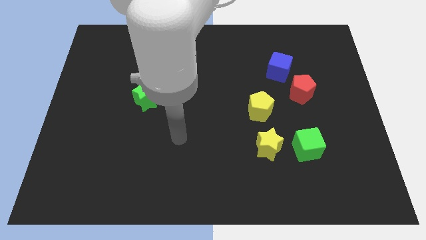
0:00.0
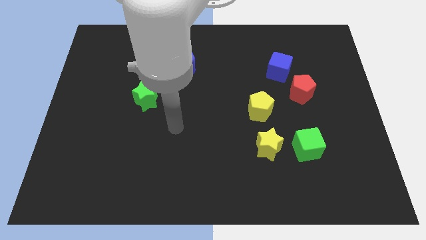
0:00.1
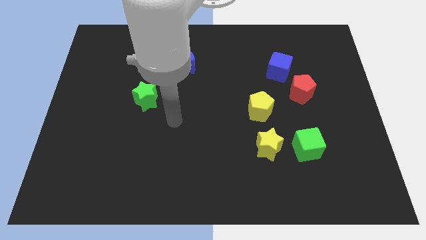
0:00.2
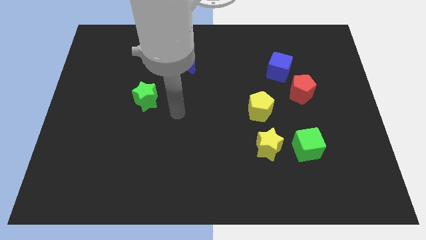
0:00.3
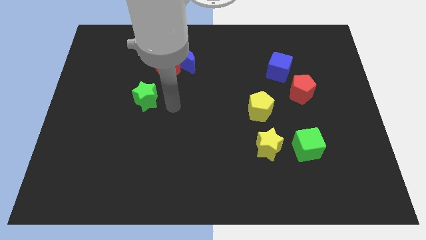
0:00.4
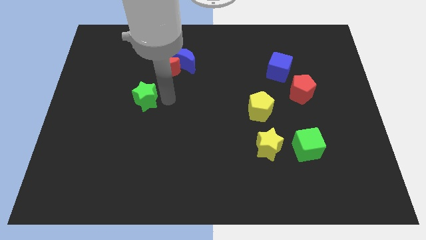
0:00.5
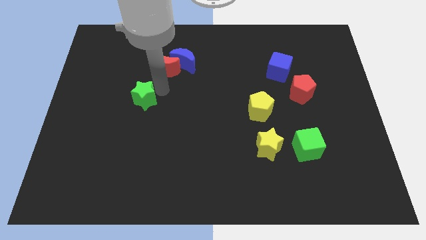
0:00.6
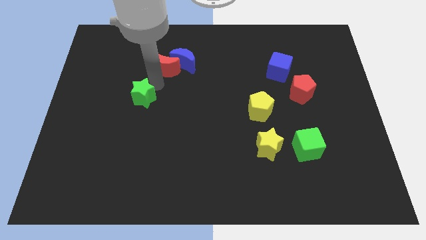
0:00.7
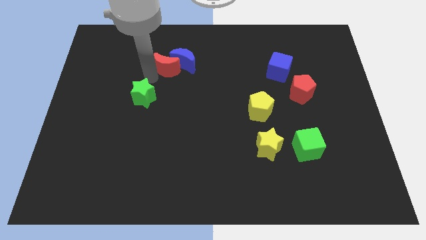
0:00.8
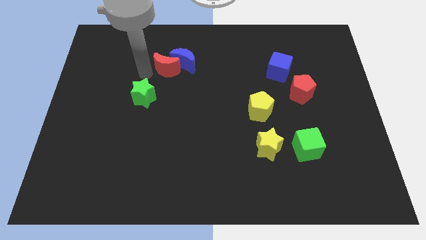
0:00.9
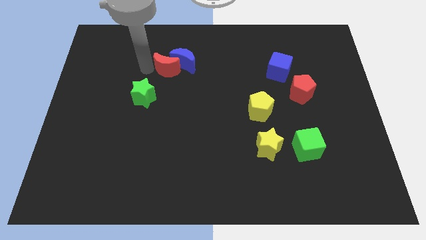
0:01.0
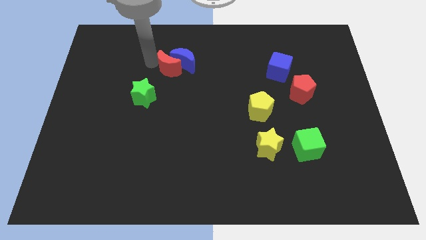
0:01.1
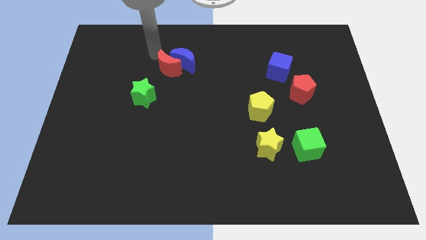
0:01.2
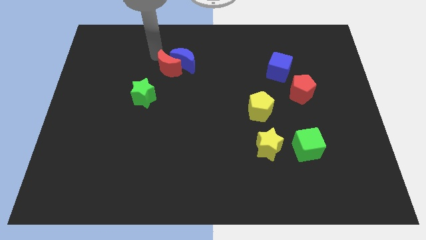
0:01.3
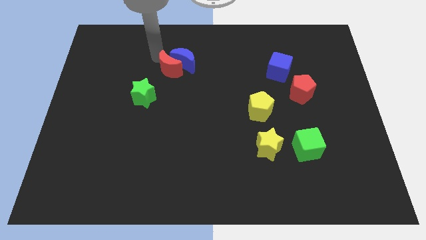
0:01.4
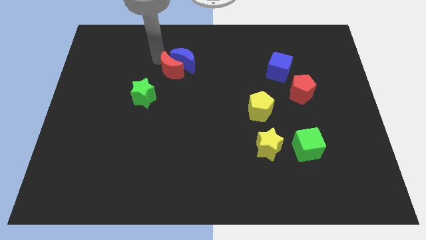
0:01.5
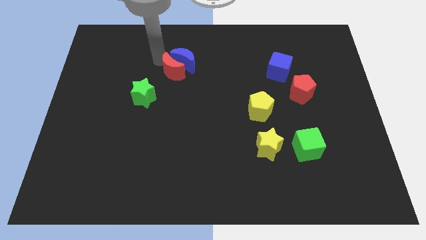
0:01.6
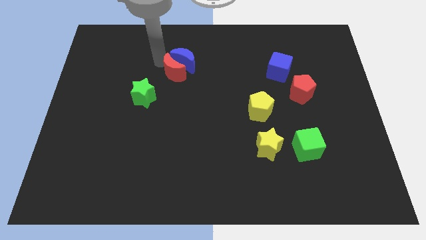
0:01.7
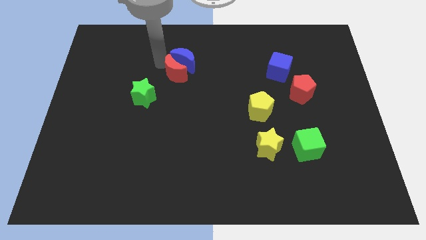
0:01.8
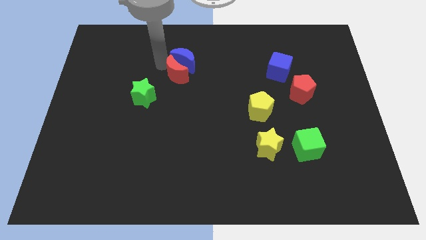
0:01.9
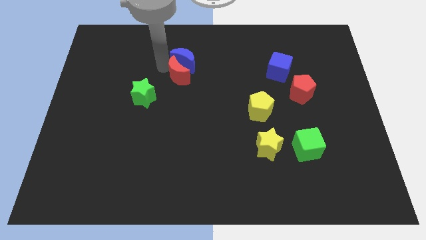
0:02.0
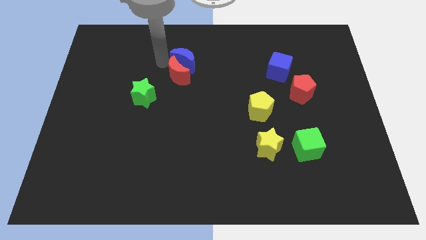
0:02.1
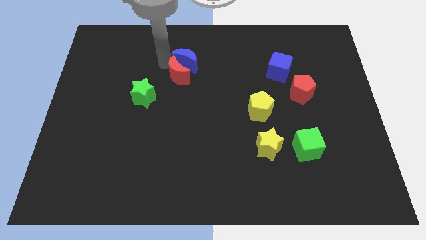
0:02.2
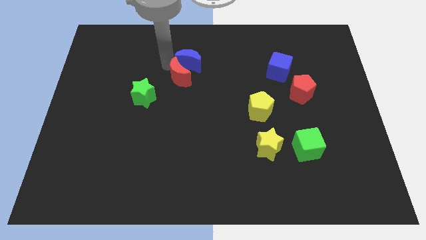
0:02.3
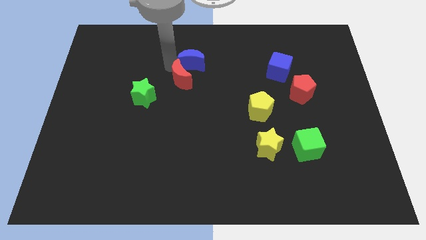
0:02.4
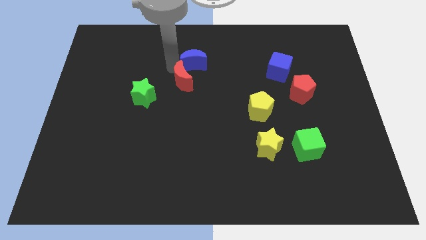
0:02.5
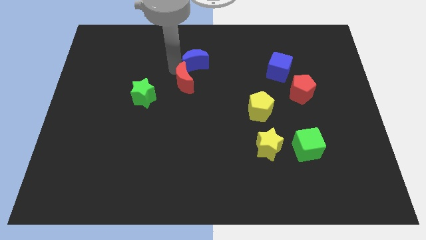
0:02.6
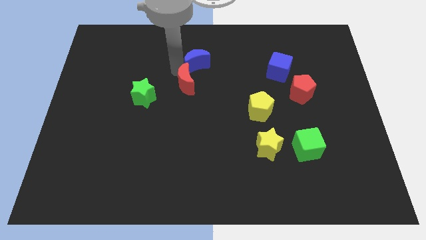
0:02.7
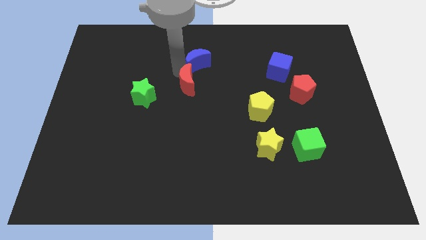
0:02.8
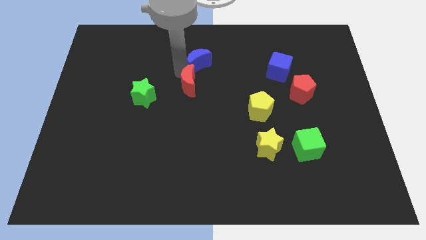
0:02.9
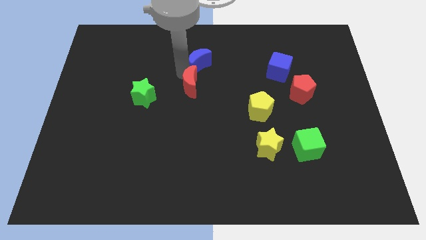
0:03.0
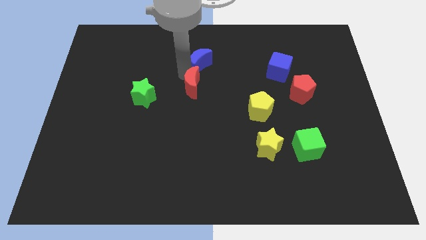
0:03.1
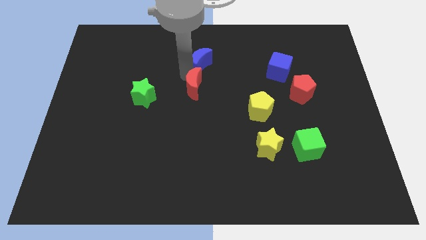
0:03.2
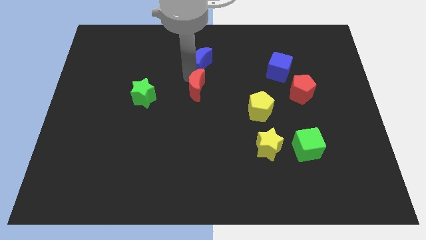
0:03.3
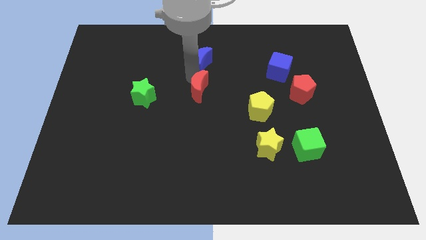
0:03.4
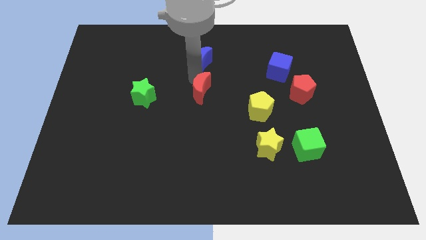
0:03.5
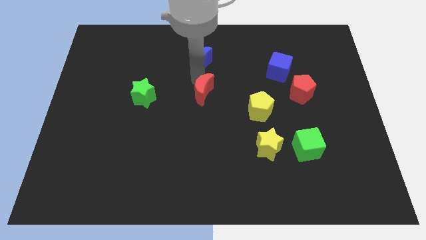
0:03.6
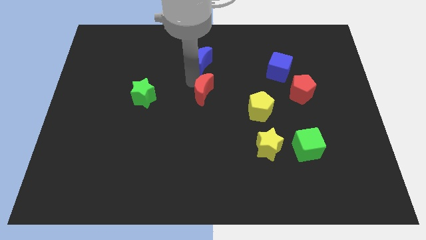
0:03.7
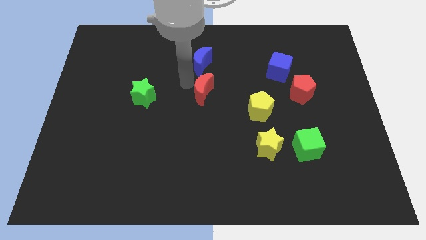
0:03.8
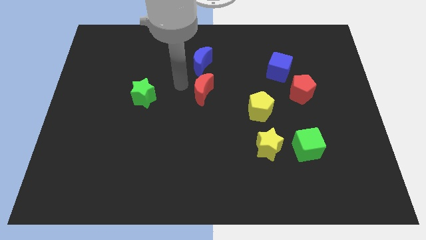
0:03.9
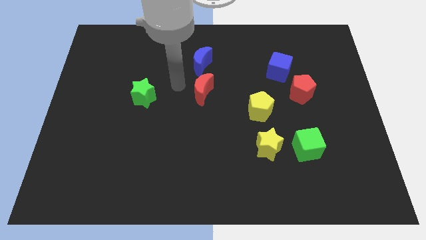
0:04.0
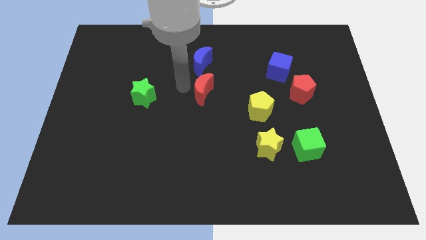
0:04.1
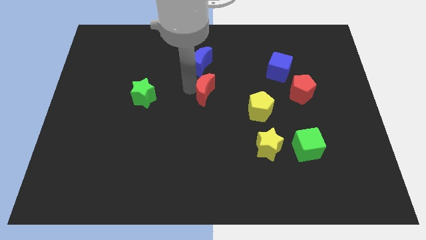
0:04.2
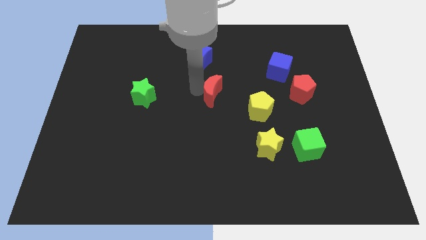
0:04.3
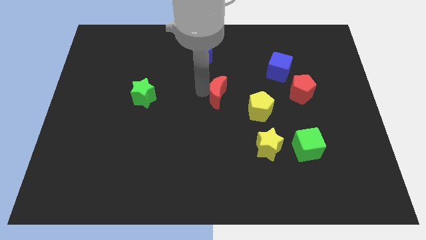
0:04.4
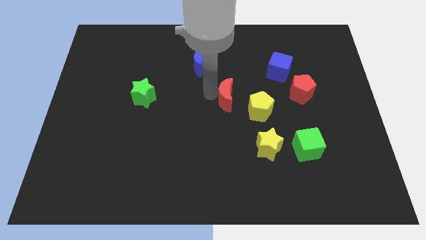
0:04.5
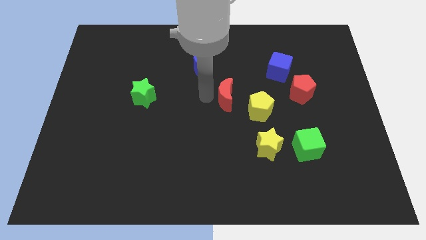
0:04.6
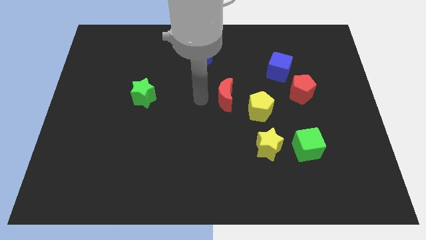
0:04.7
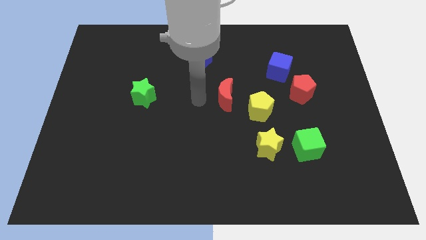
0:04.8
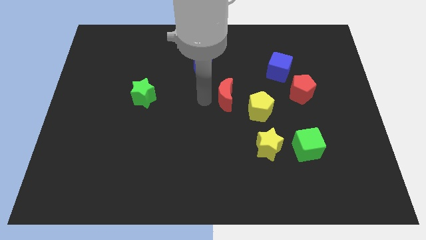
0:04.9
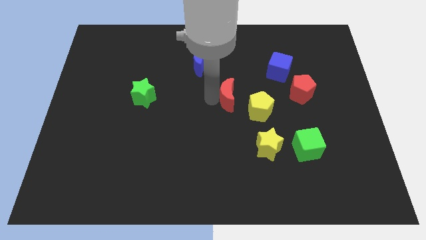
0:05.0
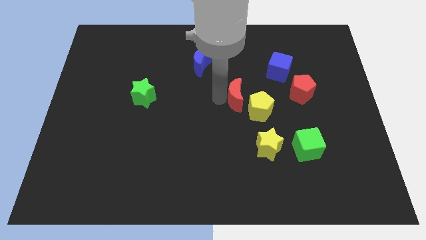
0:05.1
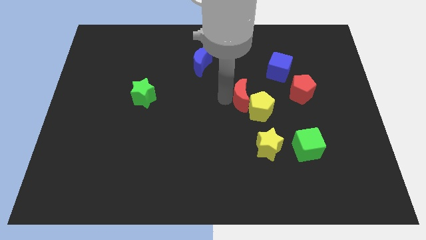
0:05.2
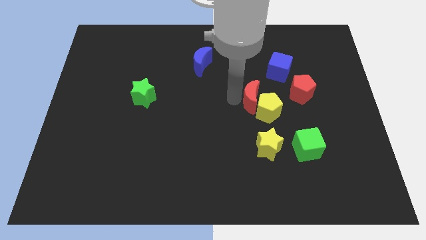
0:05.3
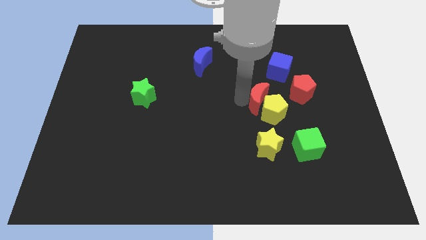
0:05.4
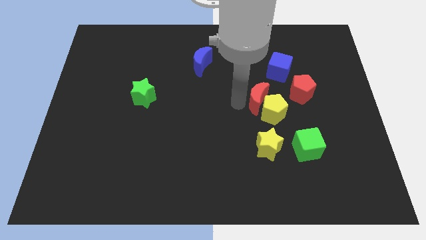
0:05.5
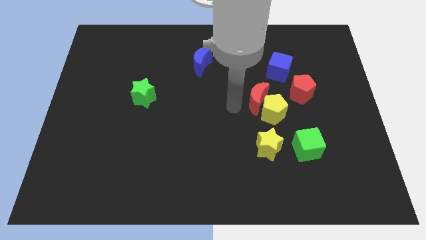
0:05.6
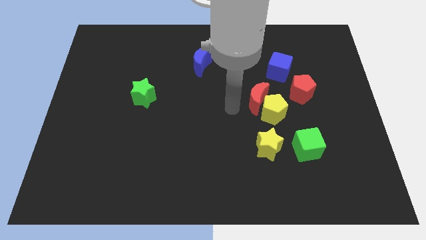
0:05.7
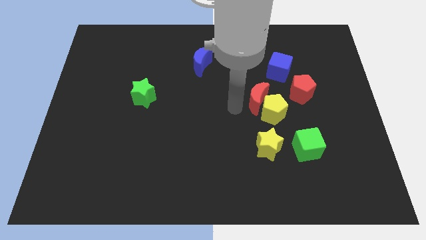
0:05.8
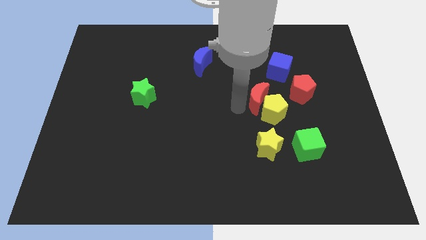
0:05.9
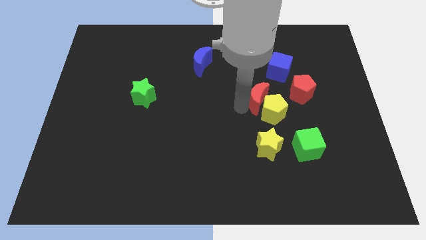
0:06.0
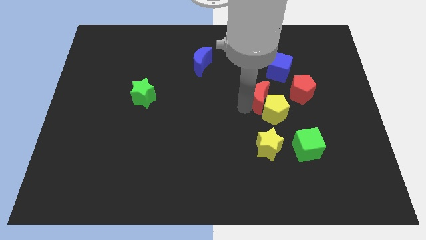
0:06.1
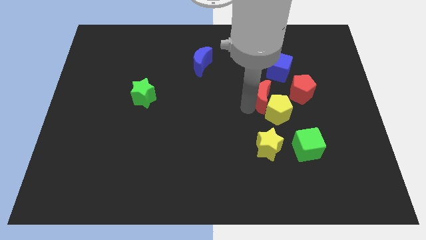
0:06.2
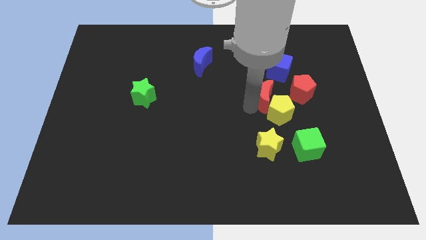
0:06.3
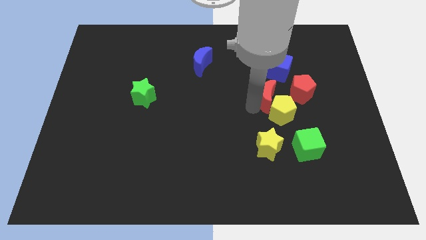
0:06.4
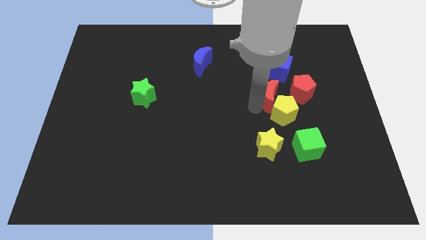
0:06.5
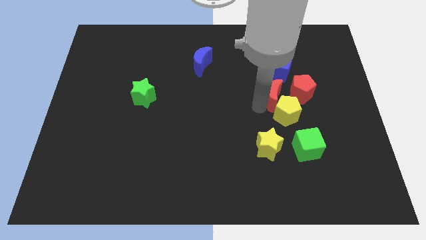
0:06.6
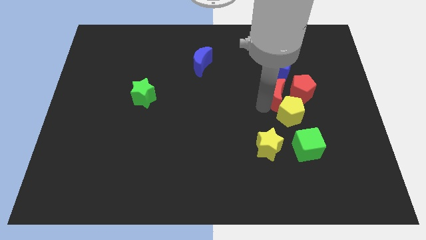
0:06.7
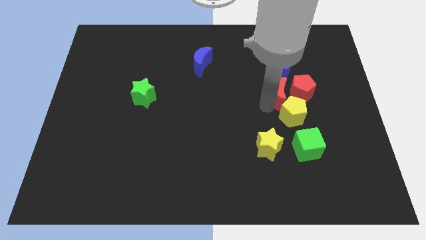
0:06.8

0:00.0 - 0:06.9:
slide the red moon next to the red pentagon

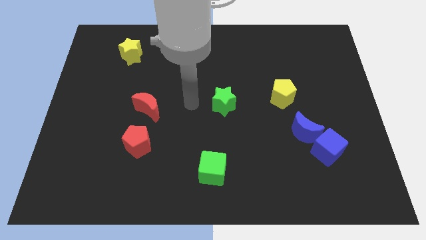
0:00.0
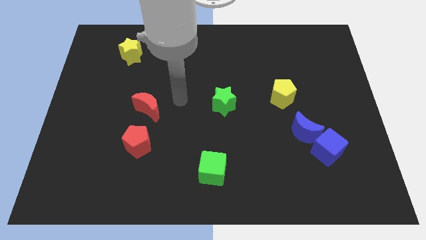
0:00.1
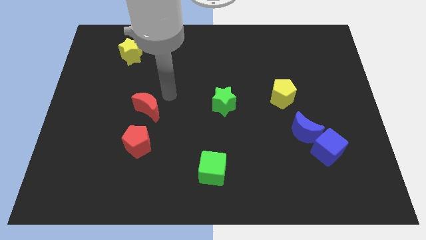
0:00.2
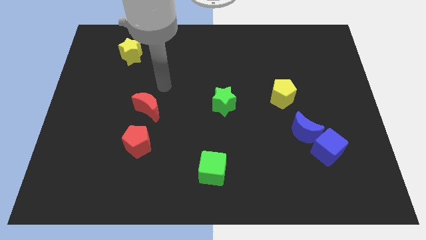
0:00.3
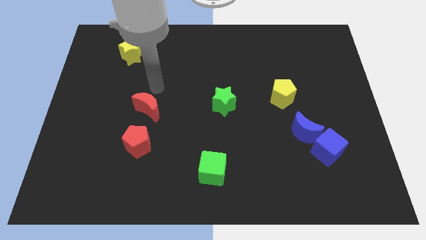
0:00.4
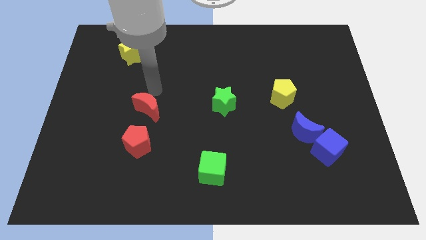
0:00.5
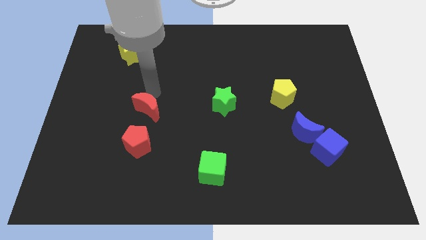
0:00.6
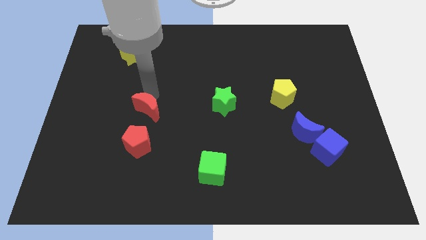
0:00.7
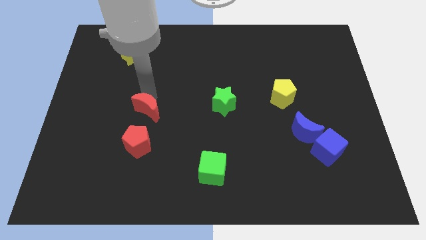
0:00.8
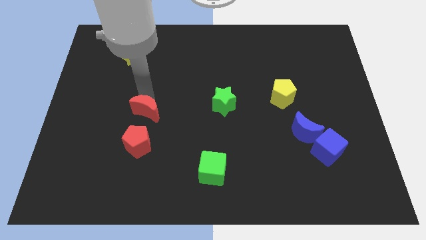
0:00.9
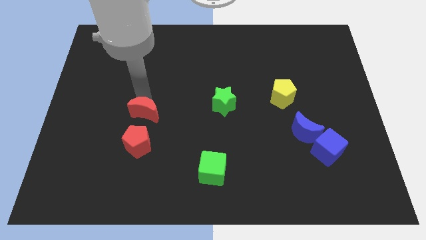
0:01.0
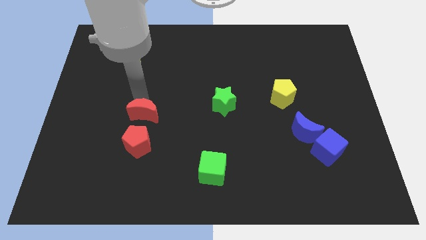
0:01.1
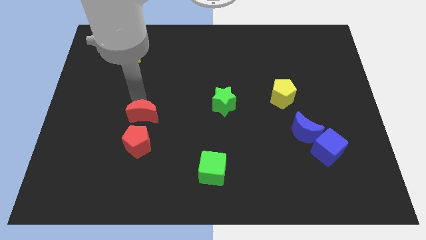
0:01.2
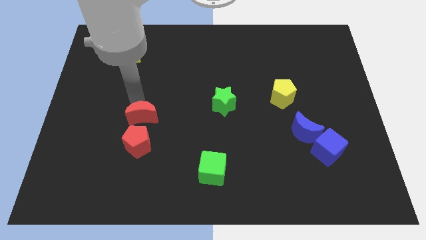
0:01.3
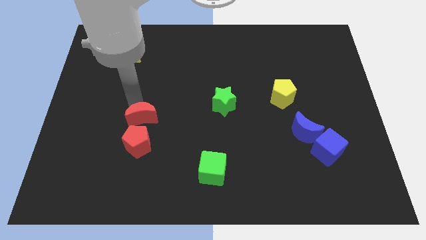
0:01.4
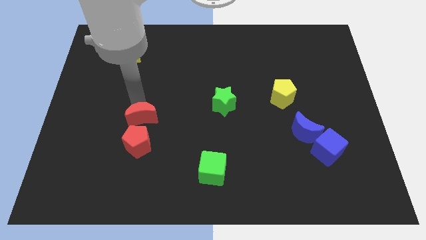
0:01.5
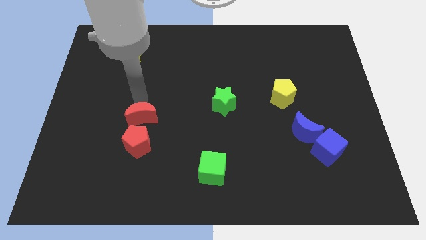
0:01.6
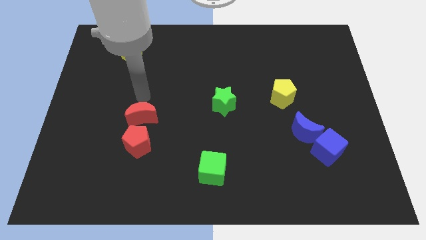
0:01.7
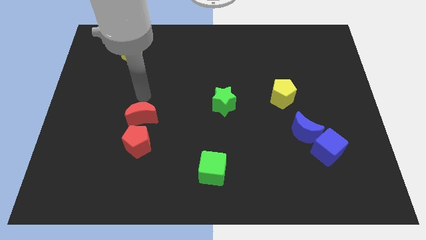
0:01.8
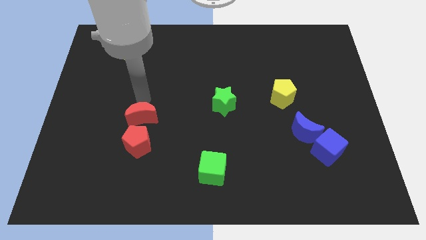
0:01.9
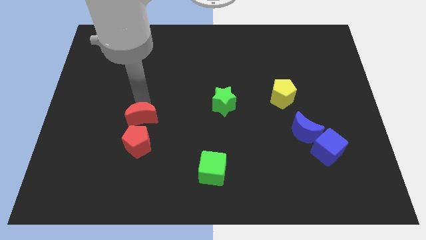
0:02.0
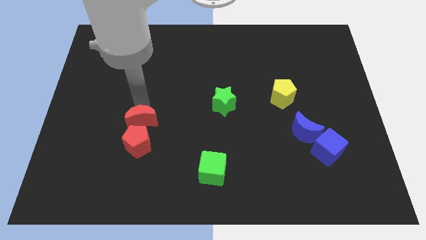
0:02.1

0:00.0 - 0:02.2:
slide the red moon towards the red pentagon
